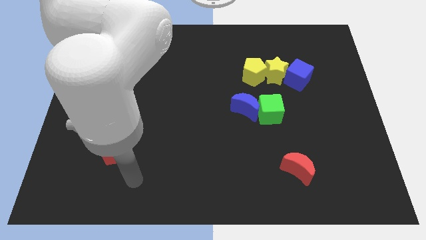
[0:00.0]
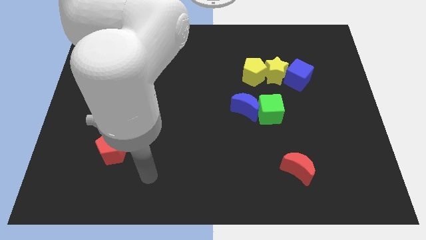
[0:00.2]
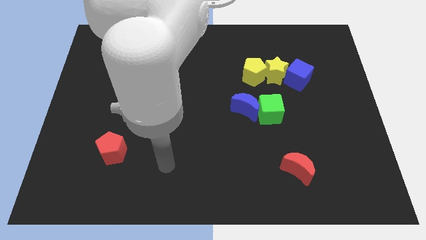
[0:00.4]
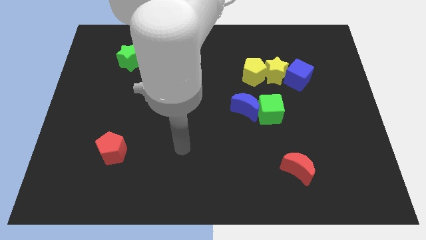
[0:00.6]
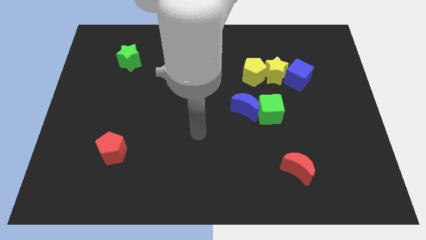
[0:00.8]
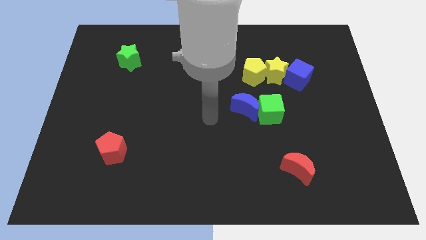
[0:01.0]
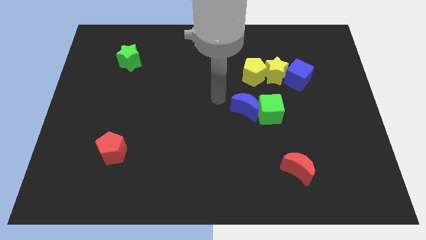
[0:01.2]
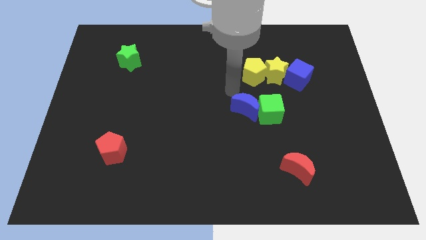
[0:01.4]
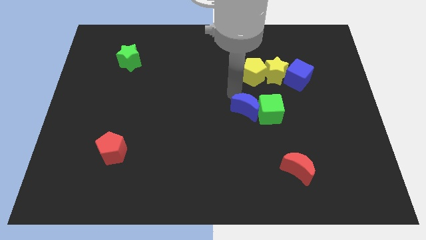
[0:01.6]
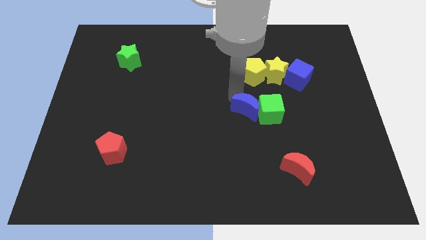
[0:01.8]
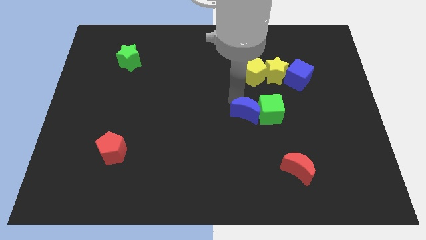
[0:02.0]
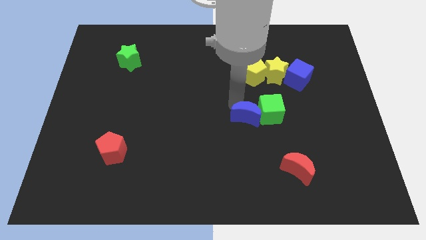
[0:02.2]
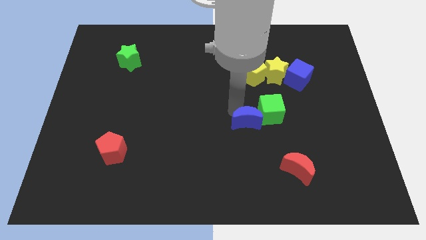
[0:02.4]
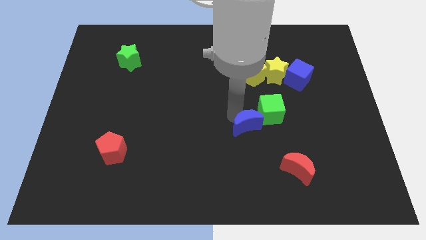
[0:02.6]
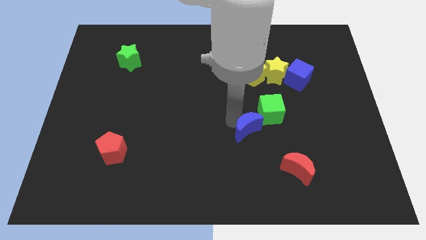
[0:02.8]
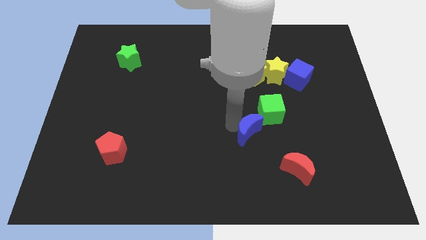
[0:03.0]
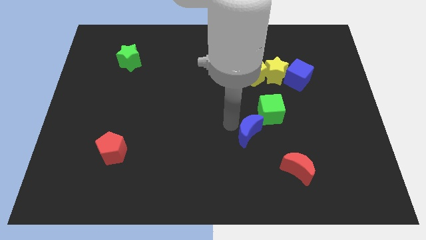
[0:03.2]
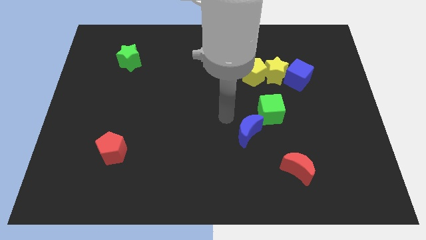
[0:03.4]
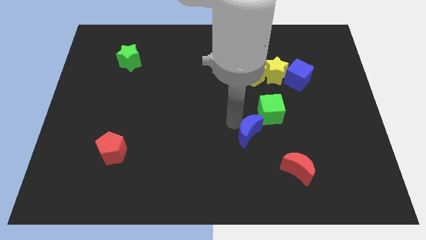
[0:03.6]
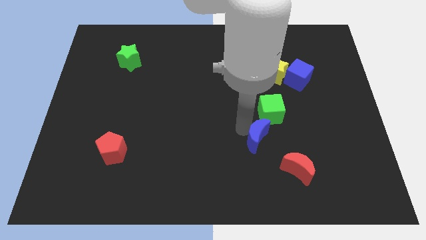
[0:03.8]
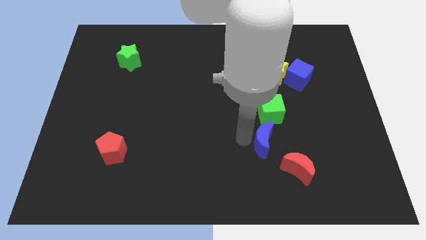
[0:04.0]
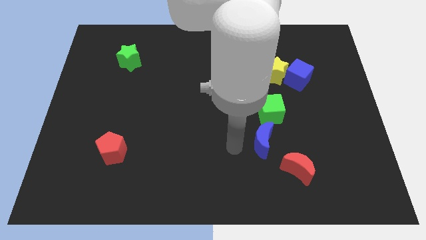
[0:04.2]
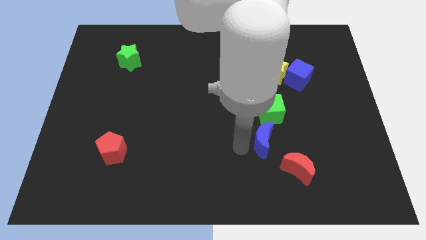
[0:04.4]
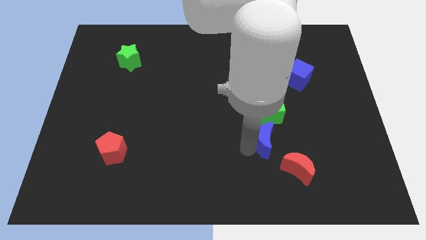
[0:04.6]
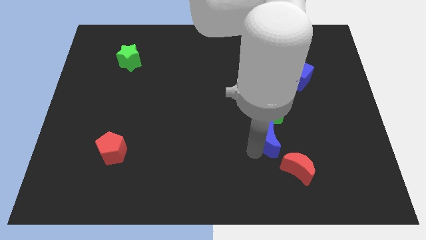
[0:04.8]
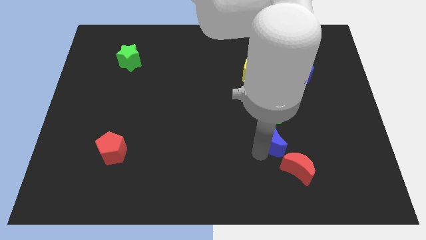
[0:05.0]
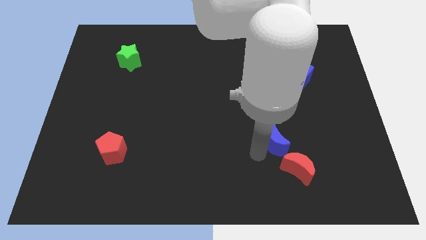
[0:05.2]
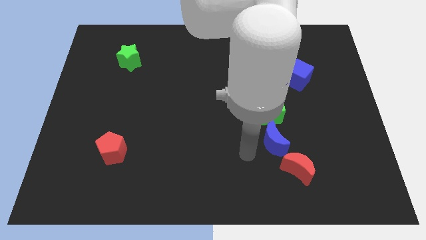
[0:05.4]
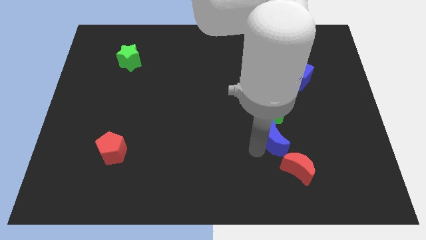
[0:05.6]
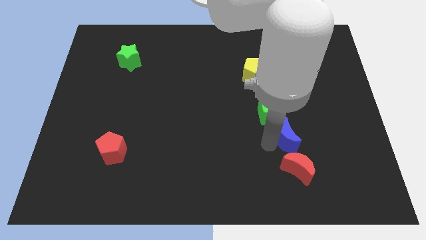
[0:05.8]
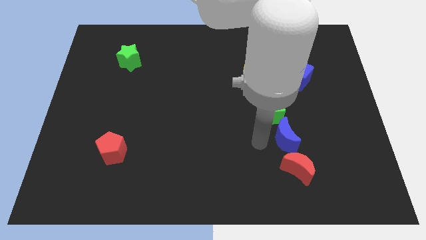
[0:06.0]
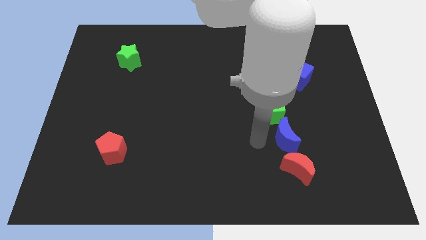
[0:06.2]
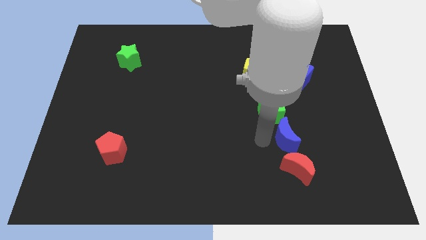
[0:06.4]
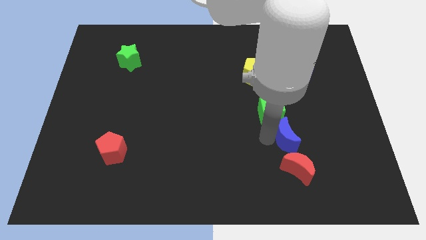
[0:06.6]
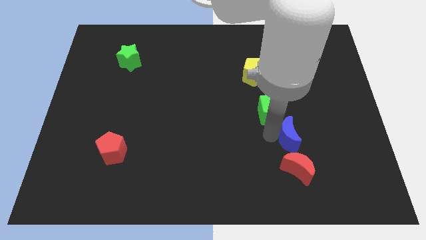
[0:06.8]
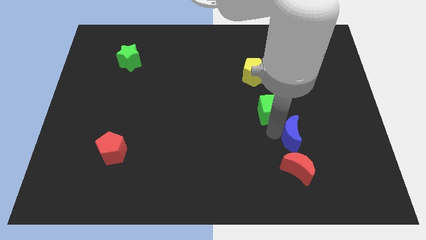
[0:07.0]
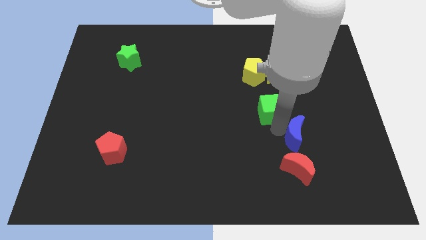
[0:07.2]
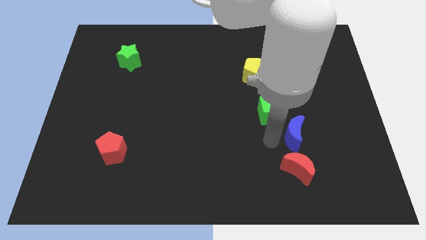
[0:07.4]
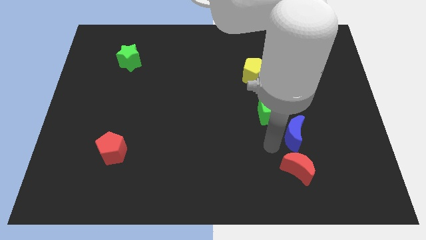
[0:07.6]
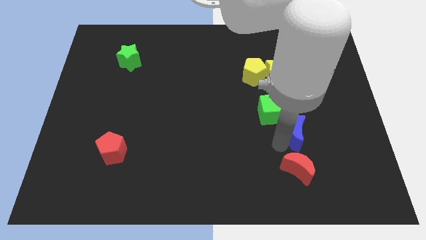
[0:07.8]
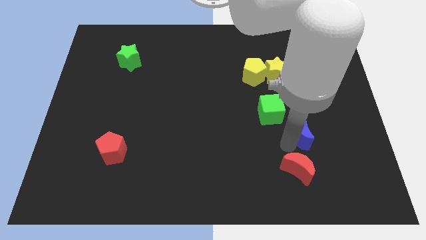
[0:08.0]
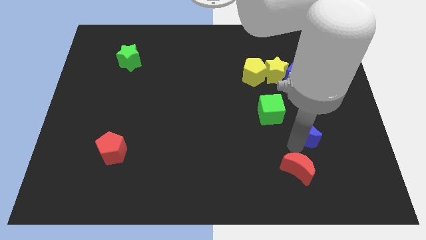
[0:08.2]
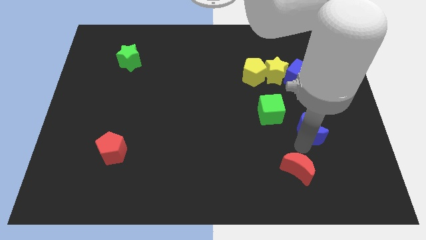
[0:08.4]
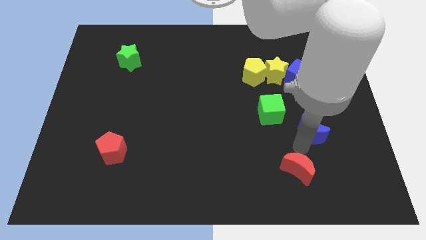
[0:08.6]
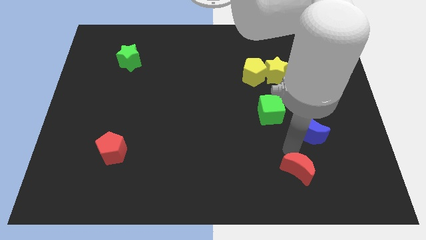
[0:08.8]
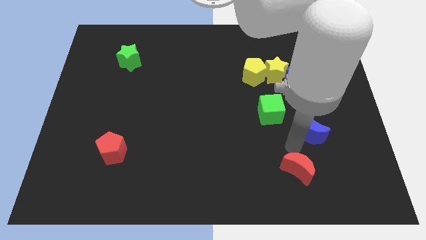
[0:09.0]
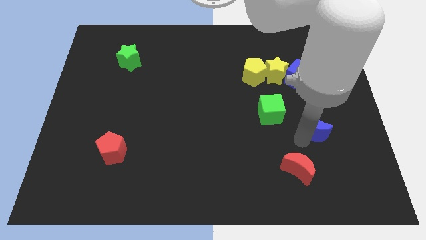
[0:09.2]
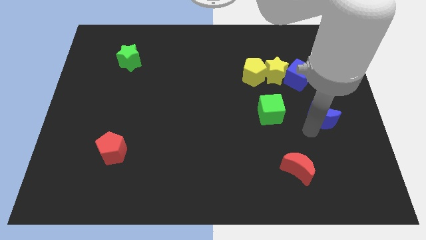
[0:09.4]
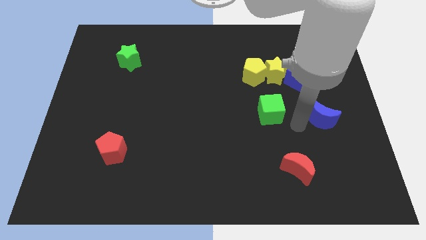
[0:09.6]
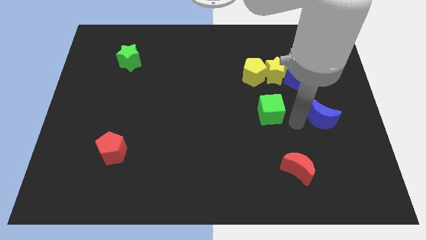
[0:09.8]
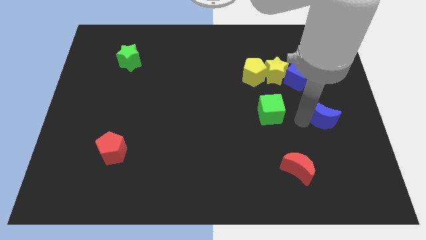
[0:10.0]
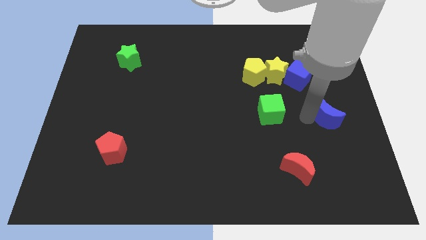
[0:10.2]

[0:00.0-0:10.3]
put the blue moon to the right side of the board
